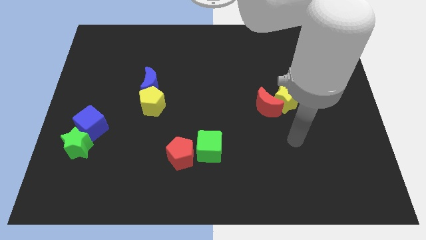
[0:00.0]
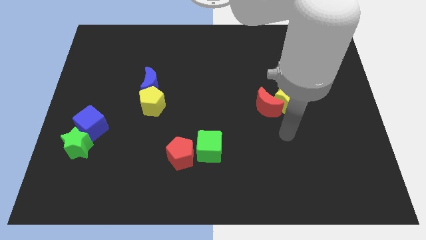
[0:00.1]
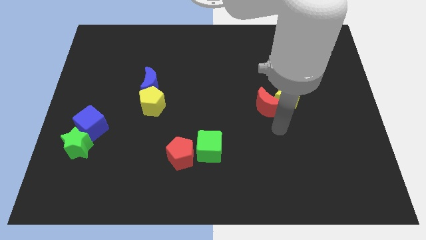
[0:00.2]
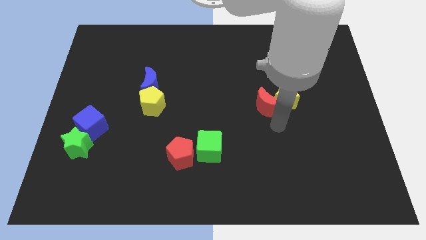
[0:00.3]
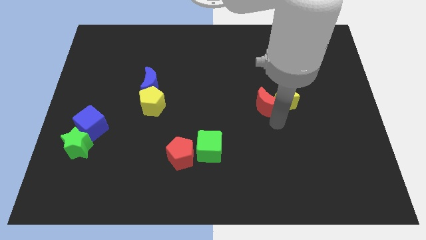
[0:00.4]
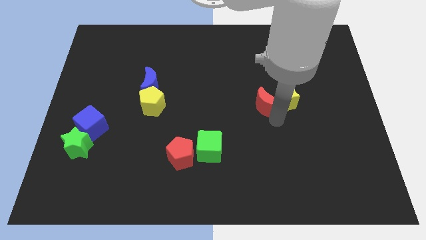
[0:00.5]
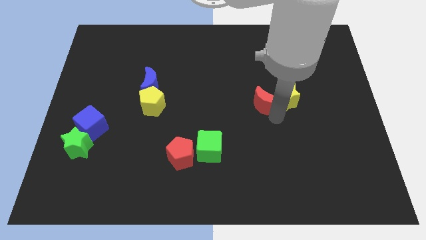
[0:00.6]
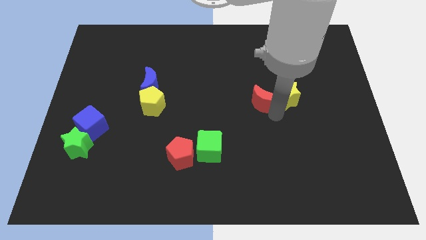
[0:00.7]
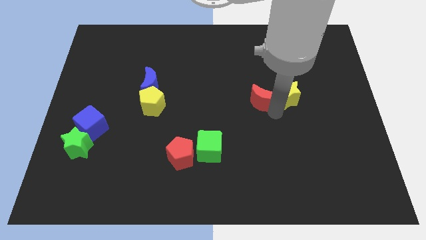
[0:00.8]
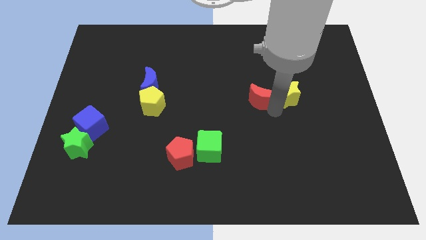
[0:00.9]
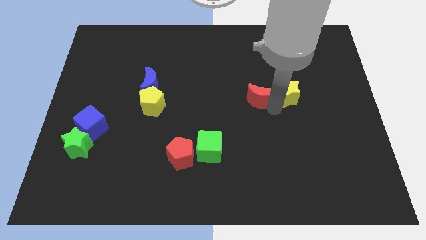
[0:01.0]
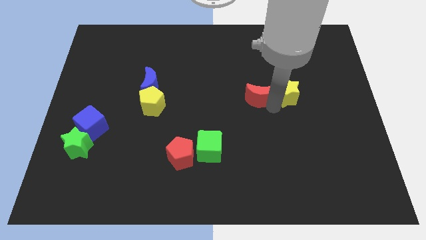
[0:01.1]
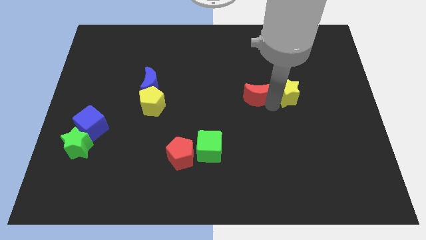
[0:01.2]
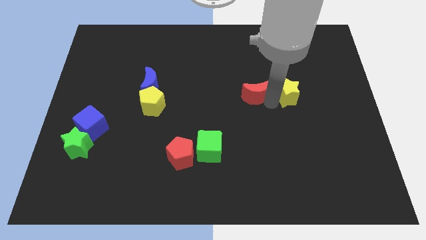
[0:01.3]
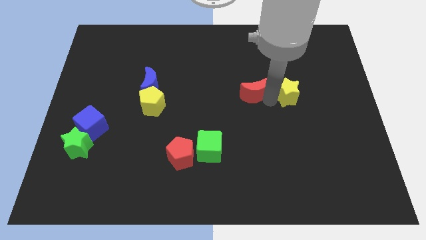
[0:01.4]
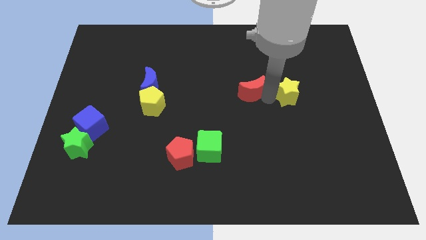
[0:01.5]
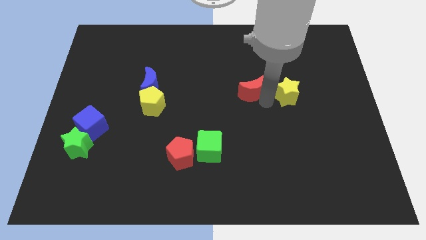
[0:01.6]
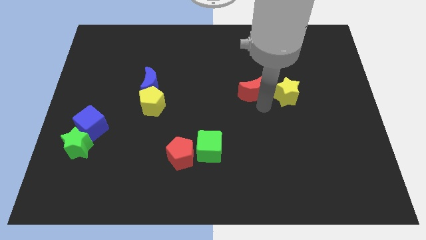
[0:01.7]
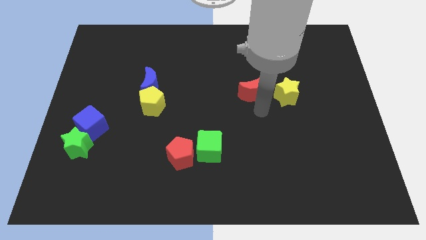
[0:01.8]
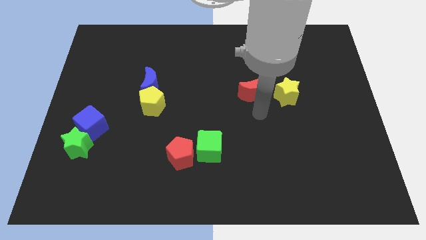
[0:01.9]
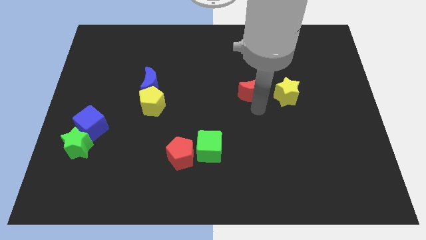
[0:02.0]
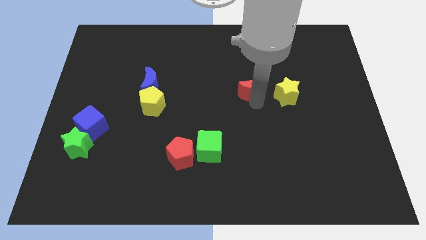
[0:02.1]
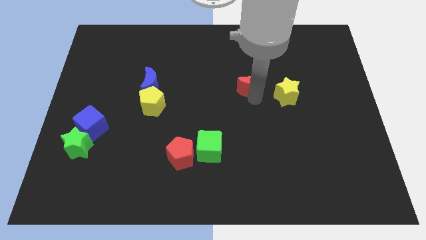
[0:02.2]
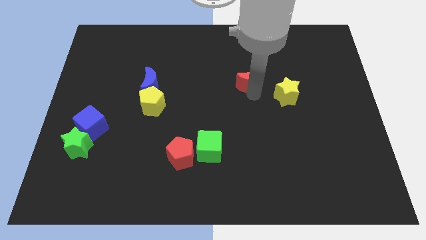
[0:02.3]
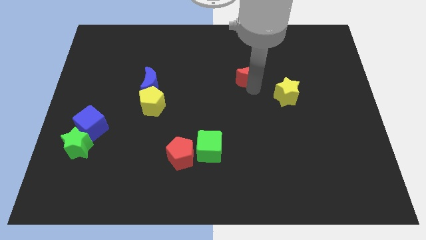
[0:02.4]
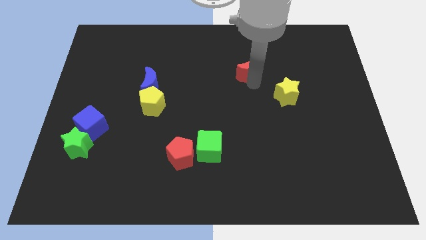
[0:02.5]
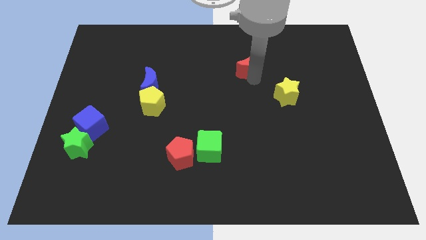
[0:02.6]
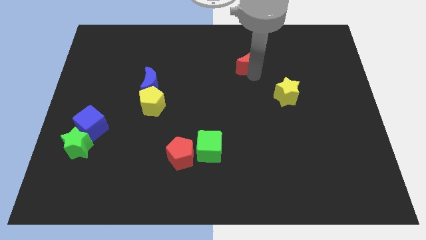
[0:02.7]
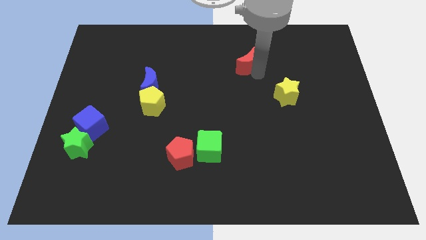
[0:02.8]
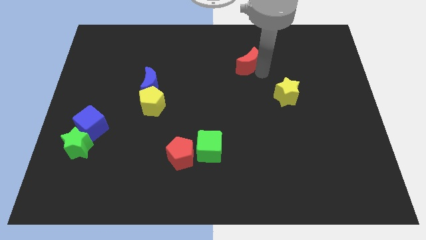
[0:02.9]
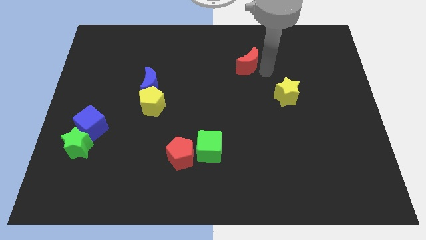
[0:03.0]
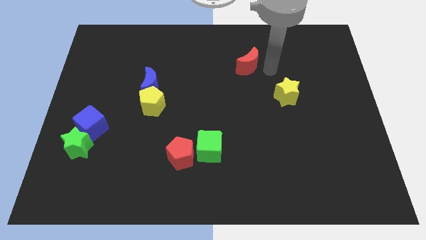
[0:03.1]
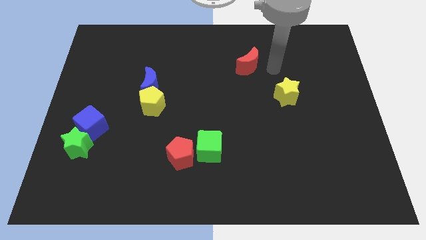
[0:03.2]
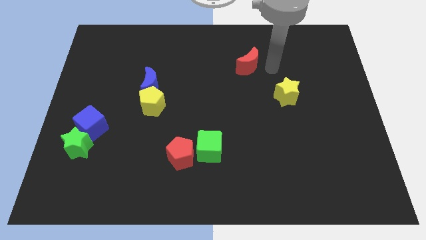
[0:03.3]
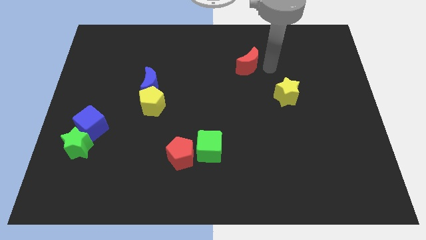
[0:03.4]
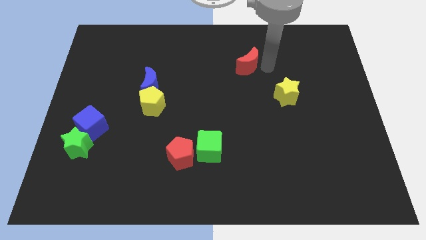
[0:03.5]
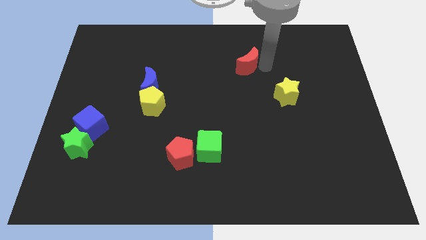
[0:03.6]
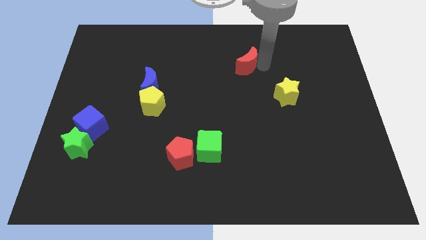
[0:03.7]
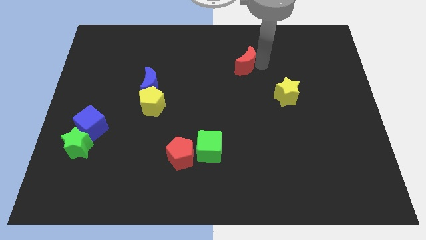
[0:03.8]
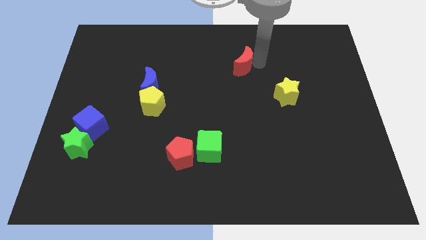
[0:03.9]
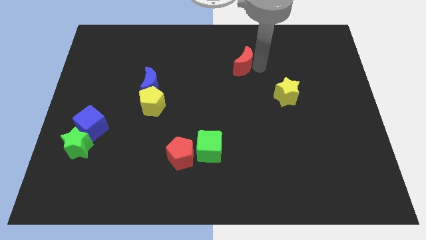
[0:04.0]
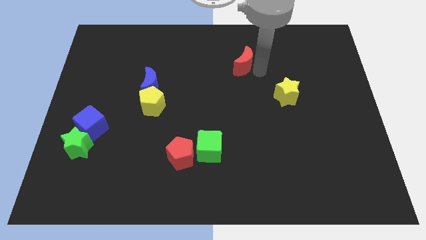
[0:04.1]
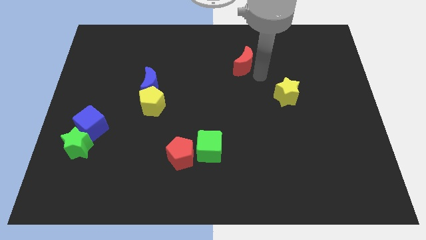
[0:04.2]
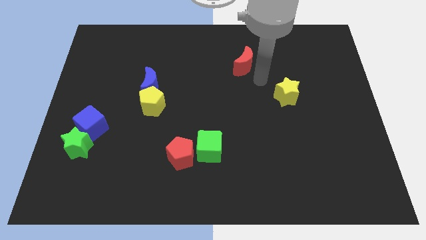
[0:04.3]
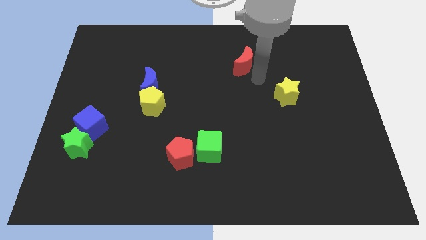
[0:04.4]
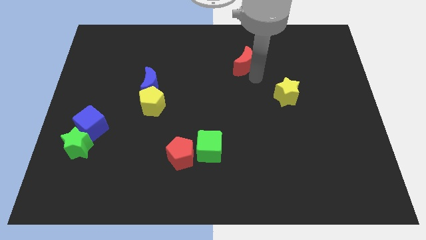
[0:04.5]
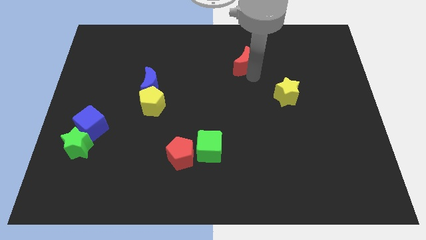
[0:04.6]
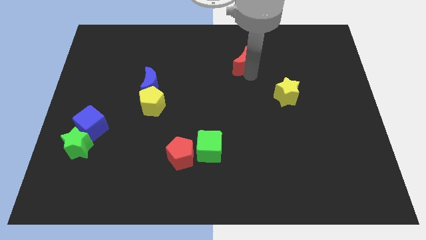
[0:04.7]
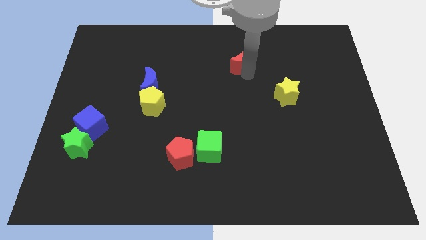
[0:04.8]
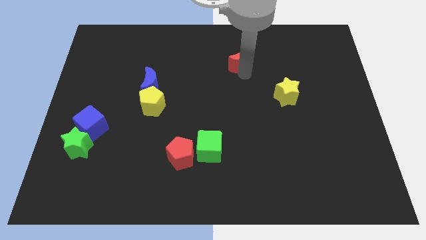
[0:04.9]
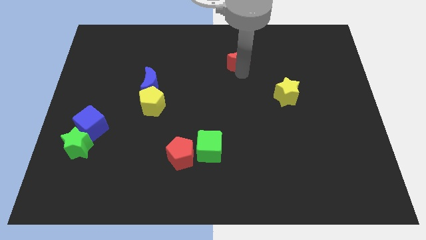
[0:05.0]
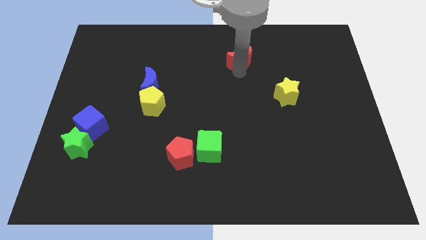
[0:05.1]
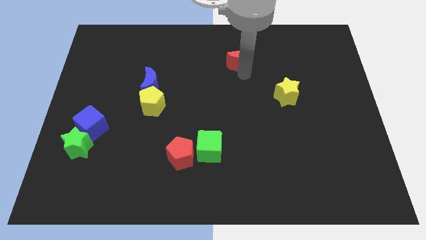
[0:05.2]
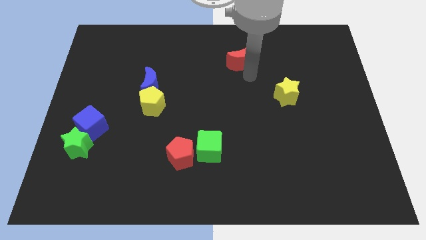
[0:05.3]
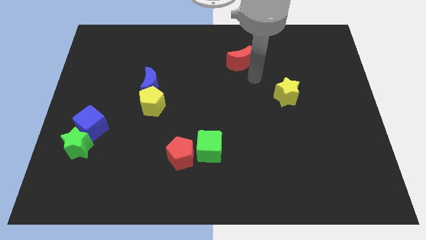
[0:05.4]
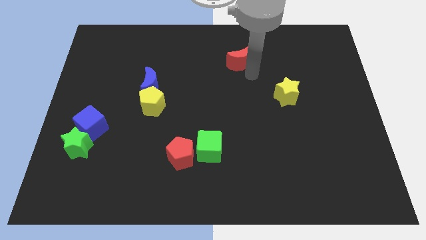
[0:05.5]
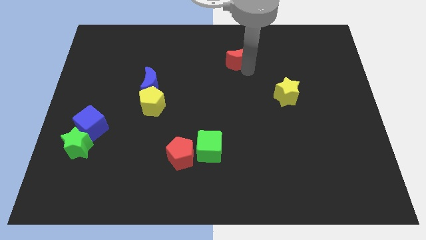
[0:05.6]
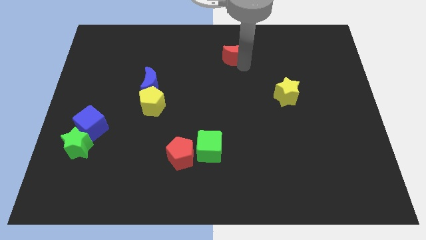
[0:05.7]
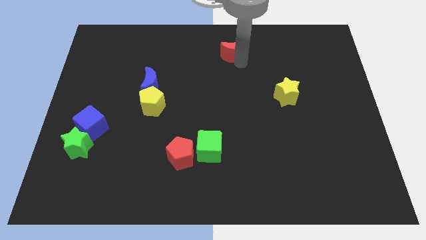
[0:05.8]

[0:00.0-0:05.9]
move the red moon to the top side
